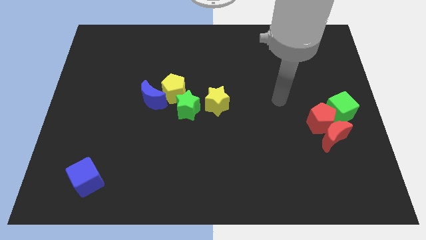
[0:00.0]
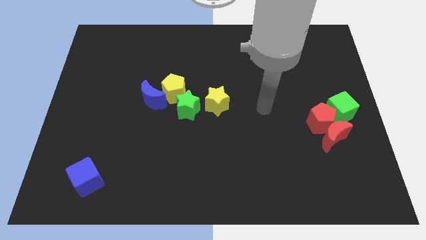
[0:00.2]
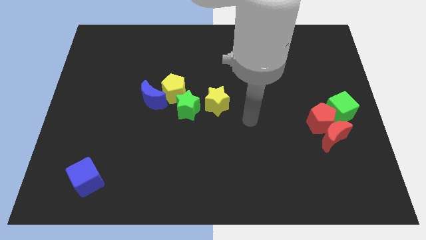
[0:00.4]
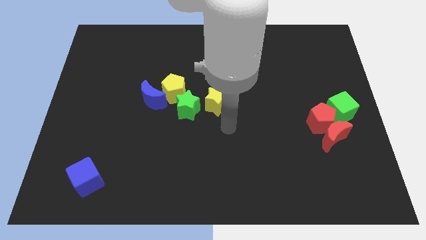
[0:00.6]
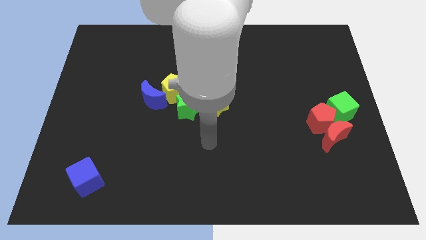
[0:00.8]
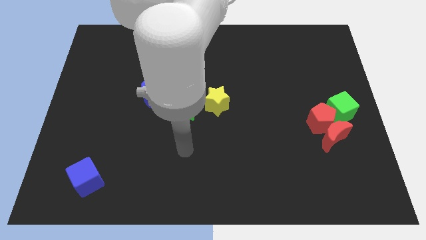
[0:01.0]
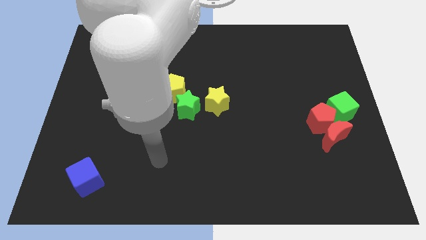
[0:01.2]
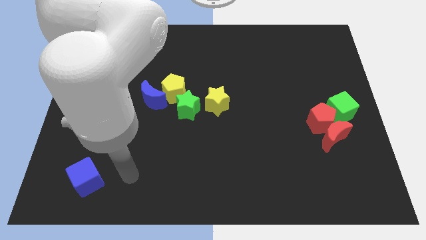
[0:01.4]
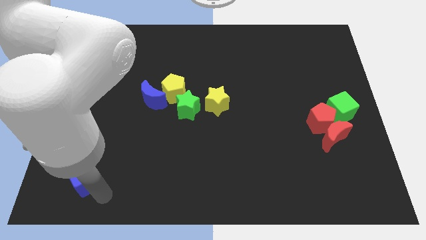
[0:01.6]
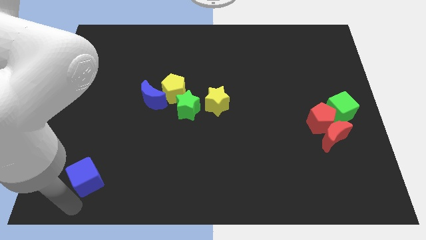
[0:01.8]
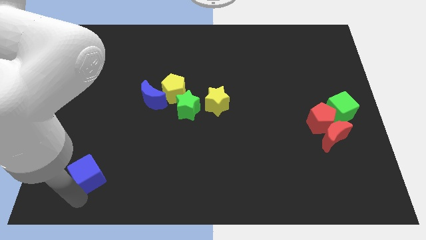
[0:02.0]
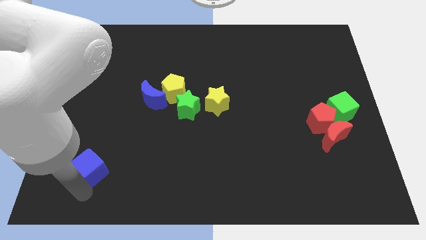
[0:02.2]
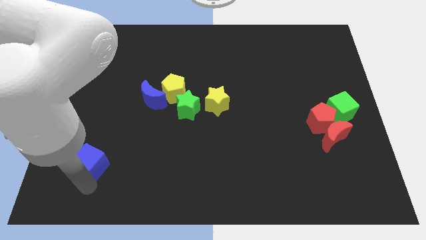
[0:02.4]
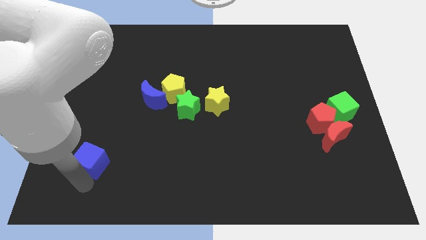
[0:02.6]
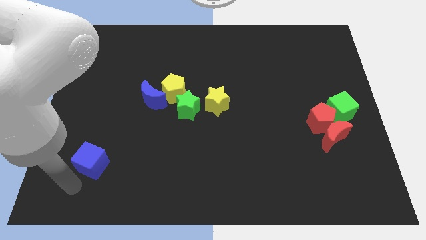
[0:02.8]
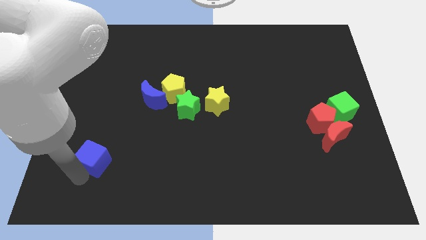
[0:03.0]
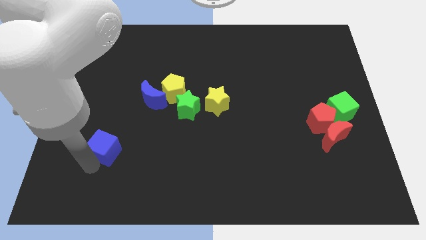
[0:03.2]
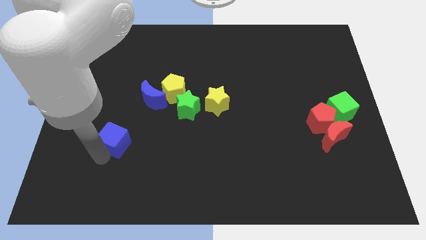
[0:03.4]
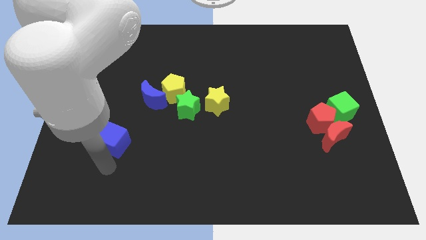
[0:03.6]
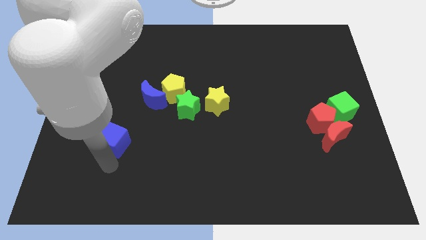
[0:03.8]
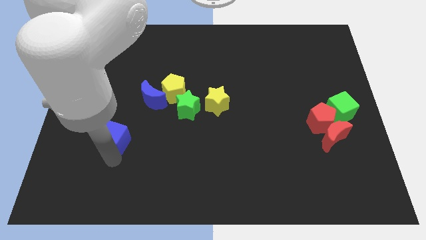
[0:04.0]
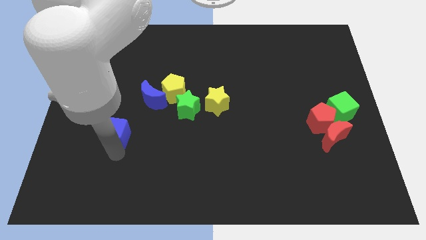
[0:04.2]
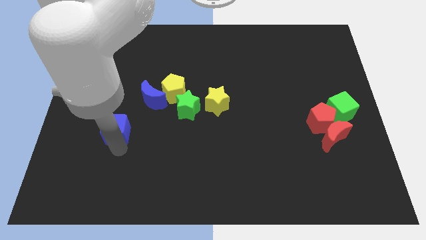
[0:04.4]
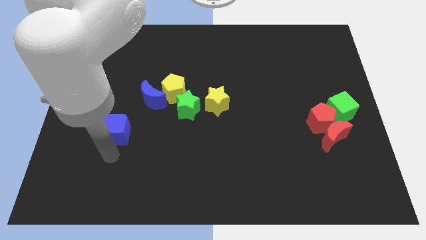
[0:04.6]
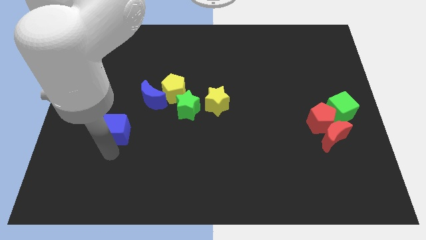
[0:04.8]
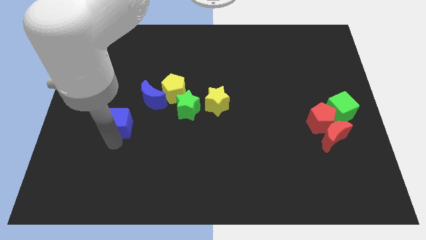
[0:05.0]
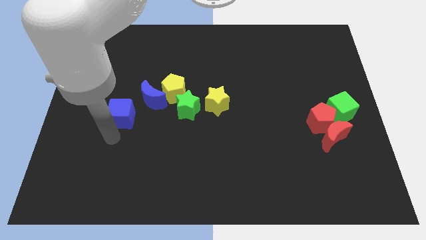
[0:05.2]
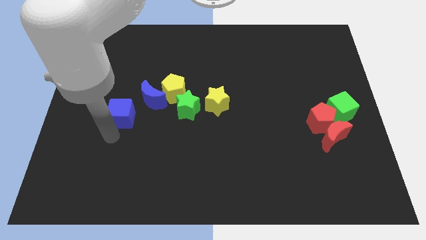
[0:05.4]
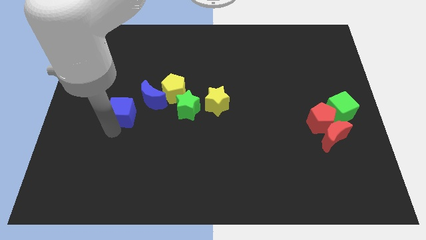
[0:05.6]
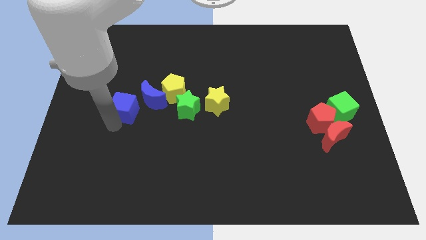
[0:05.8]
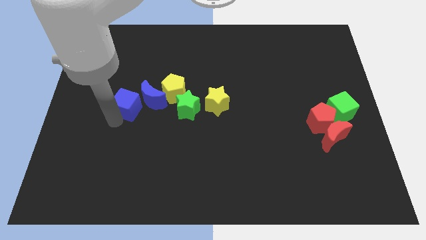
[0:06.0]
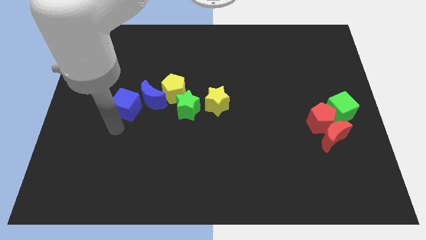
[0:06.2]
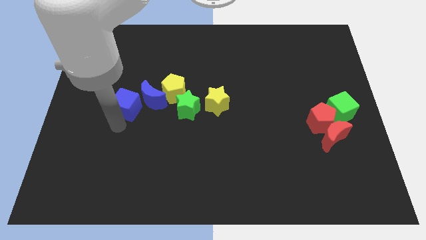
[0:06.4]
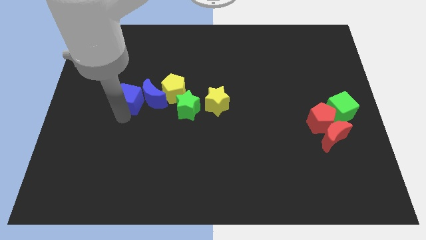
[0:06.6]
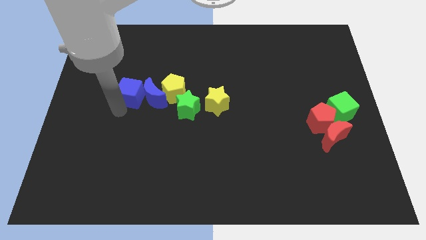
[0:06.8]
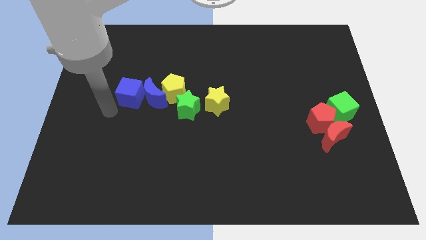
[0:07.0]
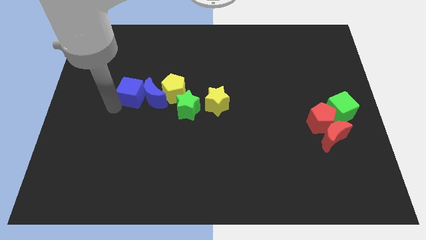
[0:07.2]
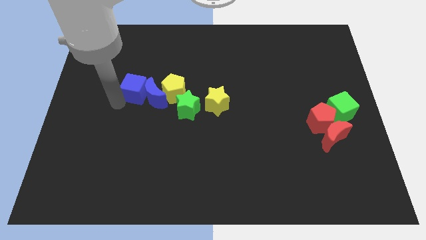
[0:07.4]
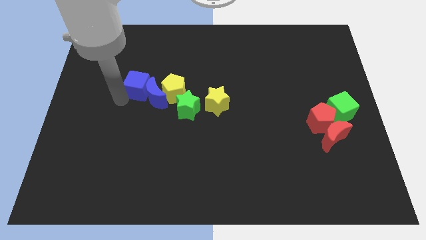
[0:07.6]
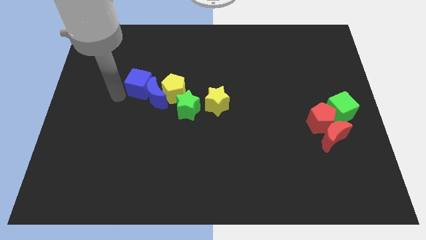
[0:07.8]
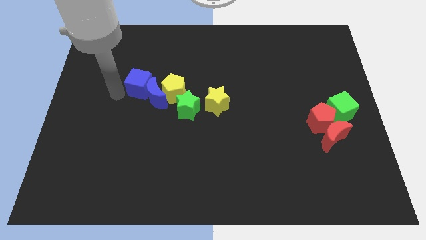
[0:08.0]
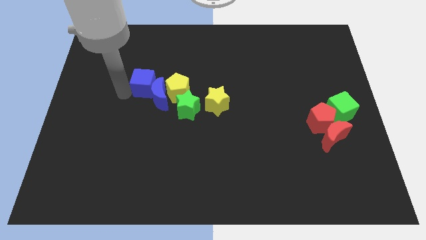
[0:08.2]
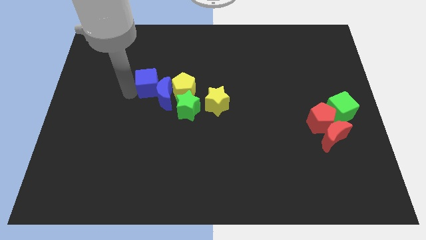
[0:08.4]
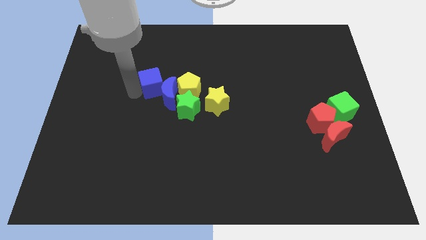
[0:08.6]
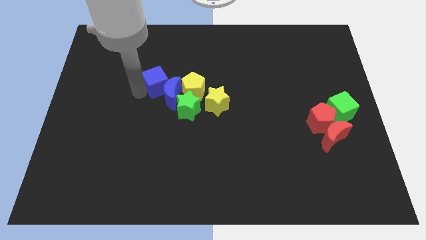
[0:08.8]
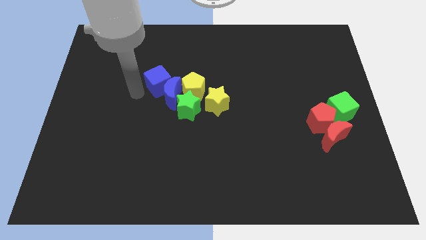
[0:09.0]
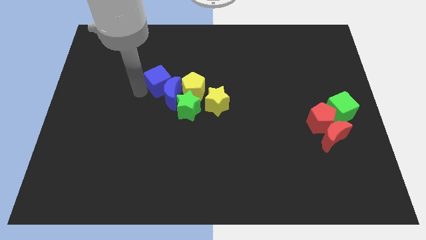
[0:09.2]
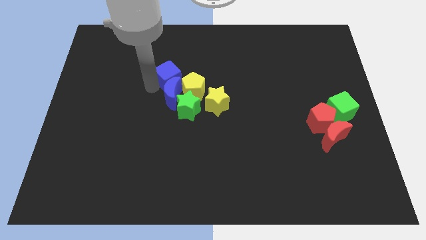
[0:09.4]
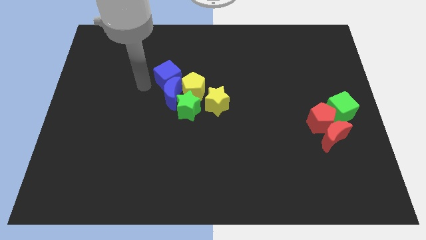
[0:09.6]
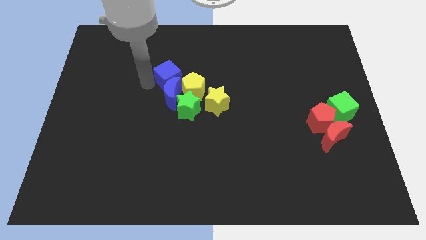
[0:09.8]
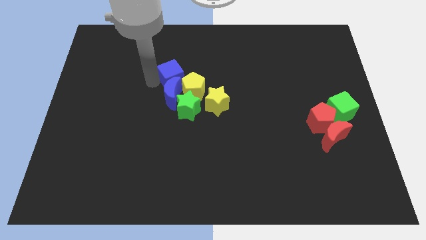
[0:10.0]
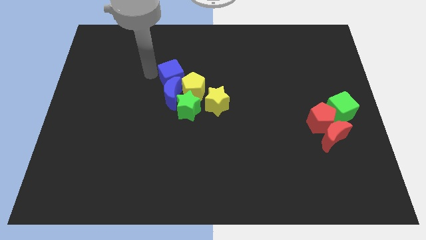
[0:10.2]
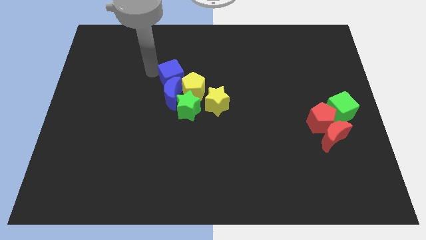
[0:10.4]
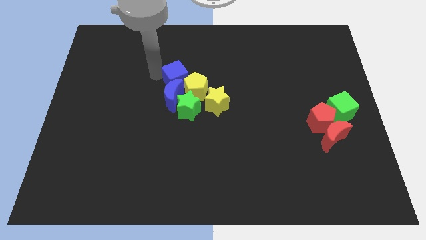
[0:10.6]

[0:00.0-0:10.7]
move the blue cube to the top left side of the yellow star

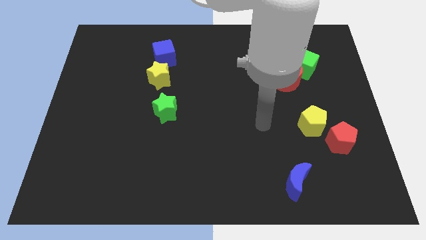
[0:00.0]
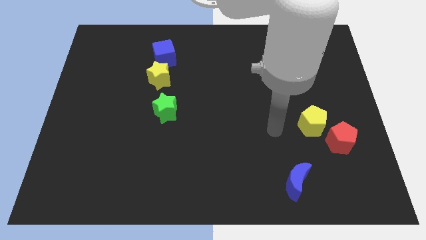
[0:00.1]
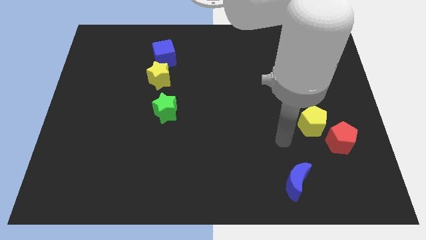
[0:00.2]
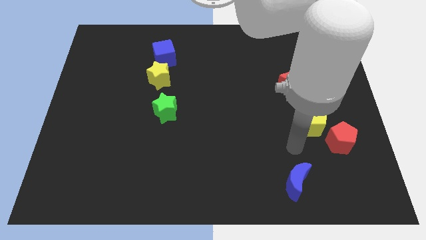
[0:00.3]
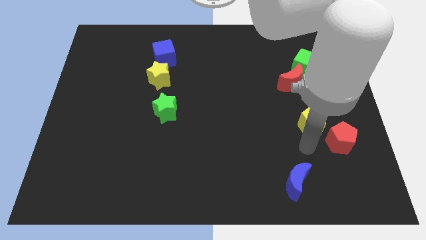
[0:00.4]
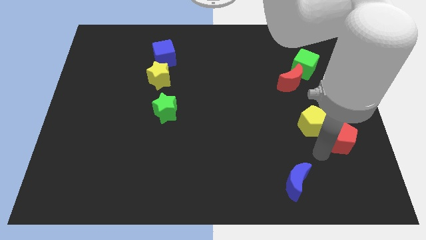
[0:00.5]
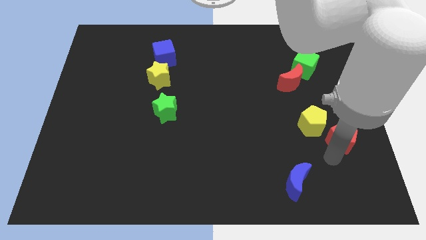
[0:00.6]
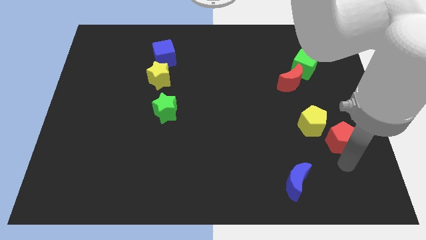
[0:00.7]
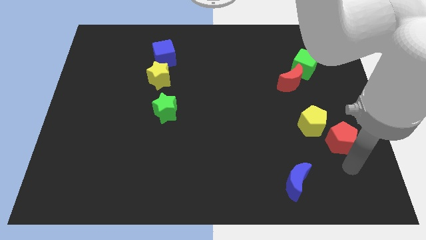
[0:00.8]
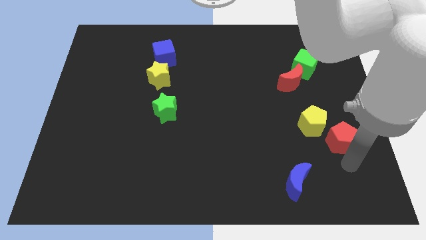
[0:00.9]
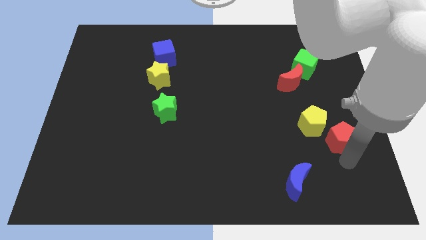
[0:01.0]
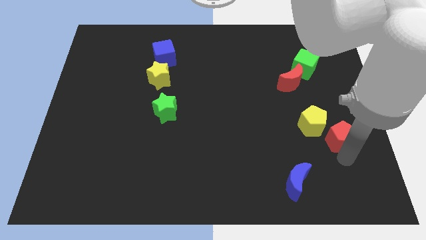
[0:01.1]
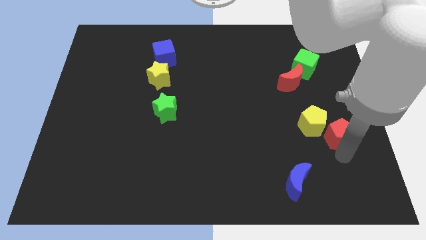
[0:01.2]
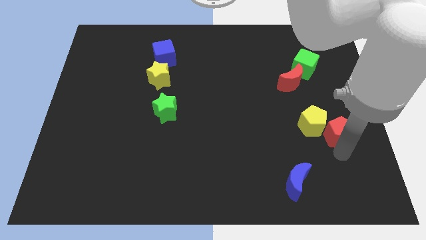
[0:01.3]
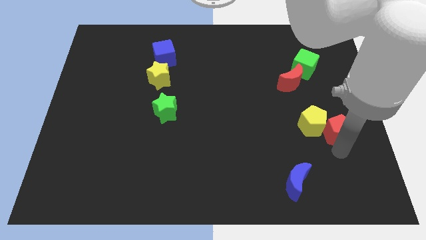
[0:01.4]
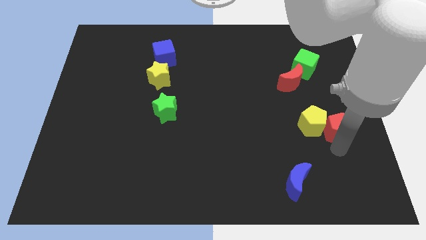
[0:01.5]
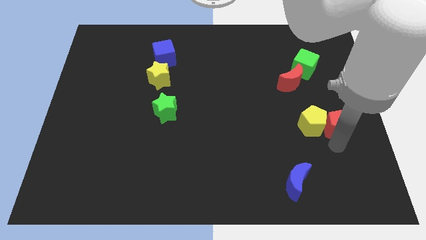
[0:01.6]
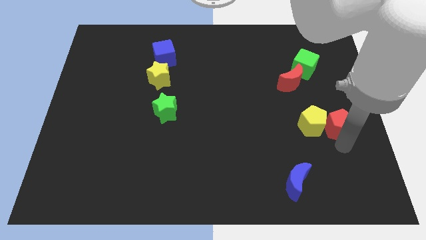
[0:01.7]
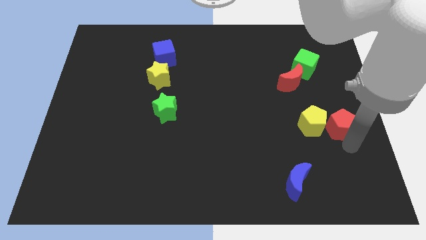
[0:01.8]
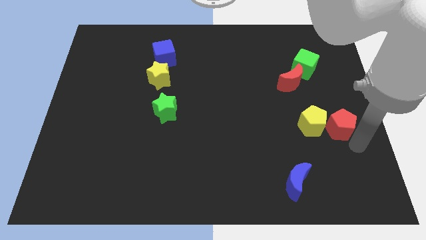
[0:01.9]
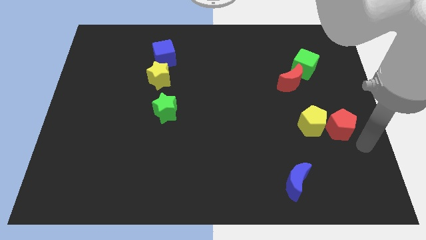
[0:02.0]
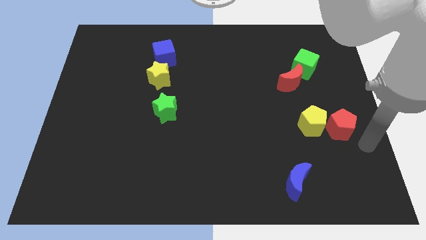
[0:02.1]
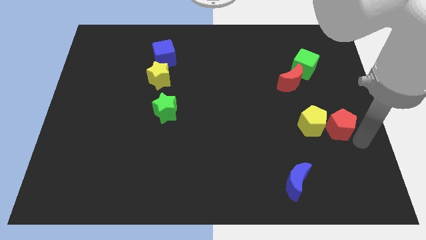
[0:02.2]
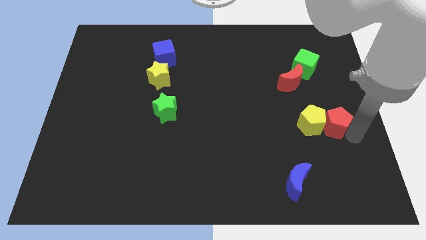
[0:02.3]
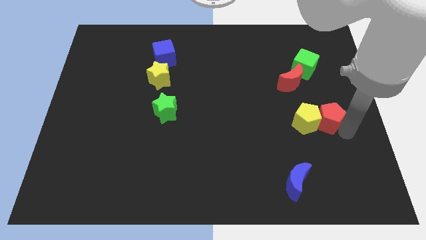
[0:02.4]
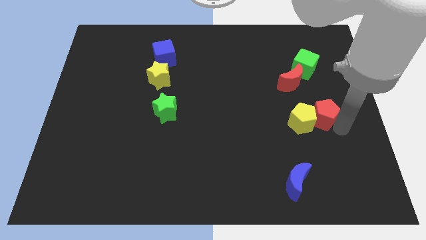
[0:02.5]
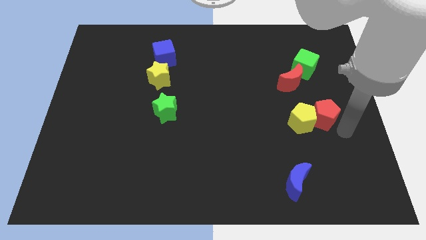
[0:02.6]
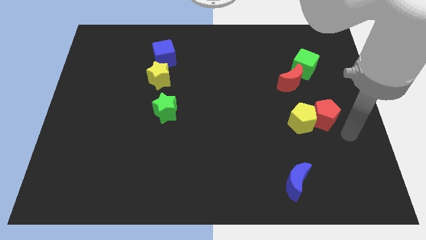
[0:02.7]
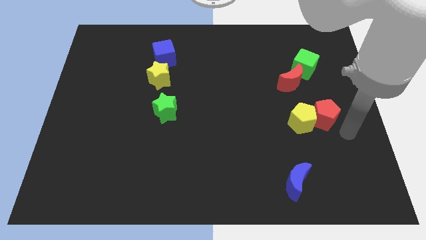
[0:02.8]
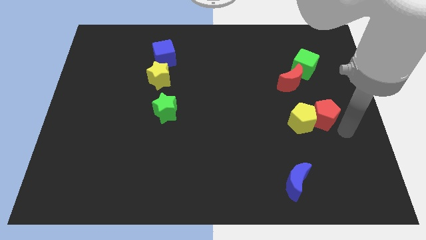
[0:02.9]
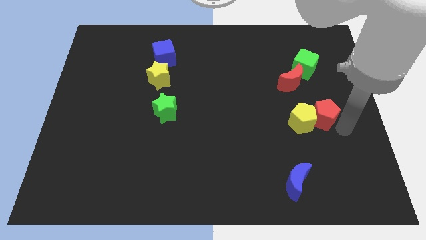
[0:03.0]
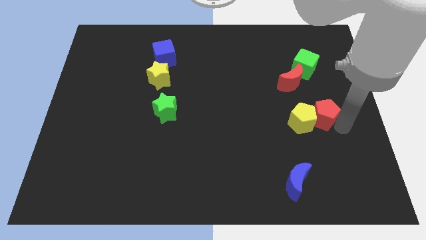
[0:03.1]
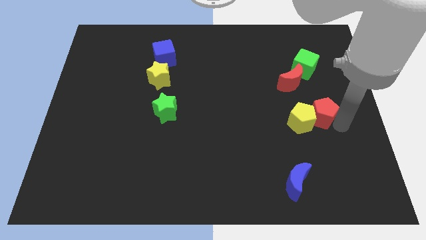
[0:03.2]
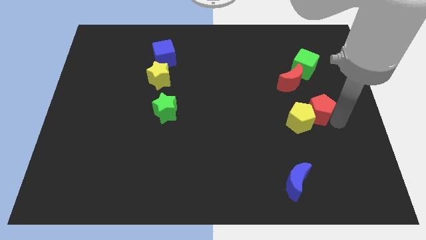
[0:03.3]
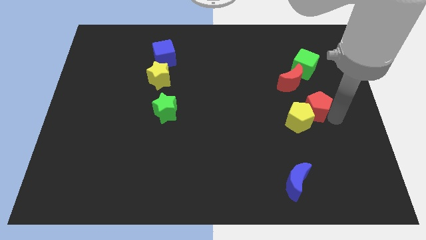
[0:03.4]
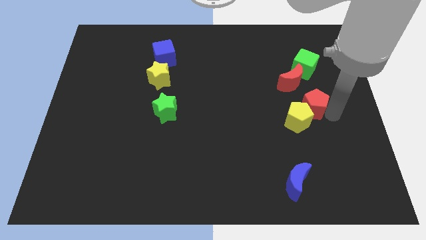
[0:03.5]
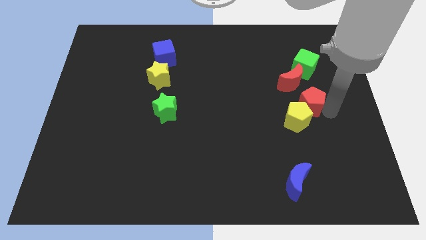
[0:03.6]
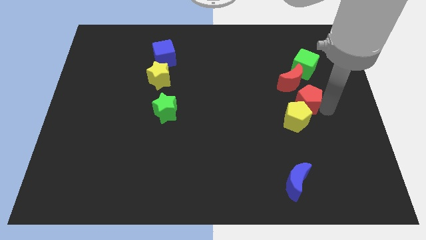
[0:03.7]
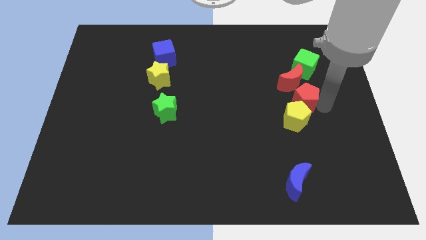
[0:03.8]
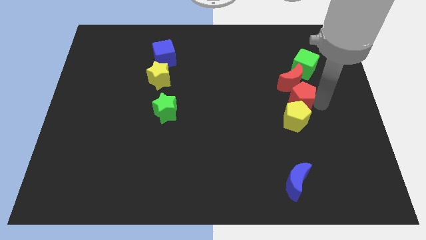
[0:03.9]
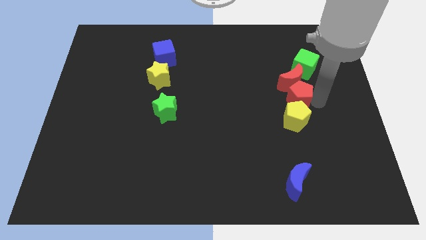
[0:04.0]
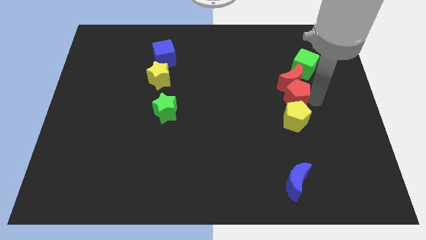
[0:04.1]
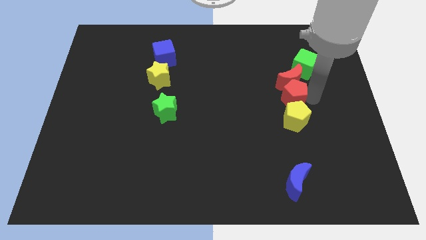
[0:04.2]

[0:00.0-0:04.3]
move the red pentagon to the top left side of the yellow pentagon
